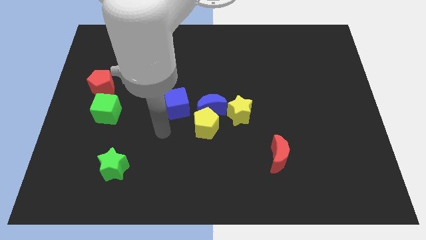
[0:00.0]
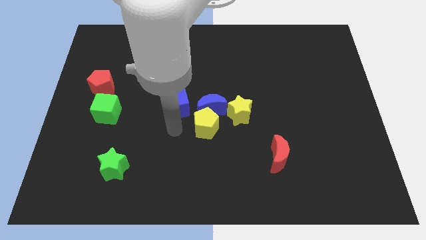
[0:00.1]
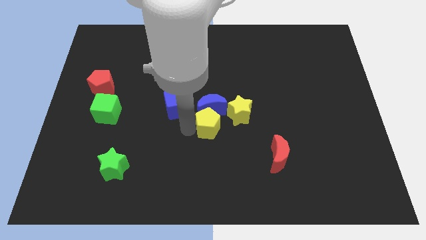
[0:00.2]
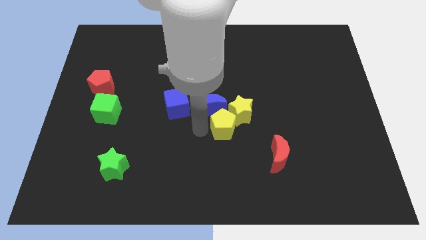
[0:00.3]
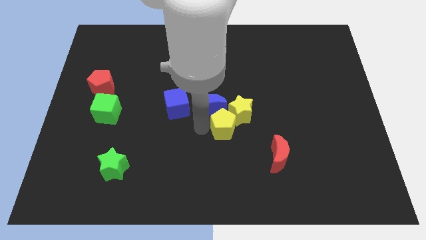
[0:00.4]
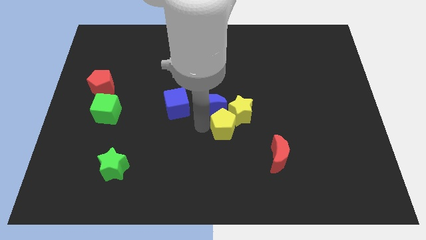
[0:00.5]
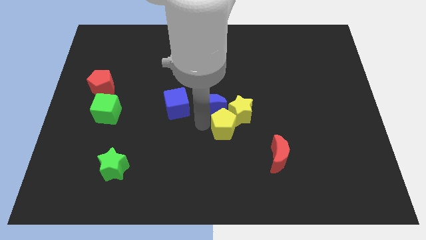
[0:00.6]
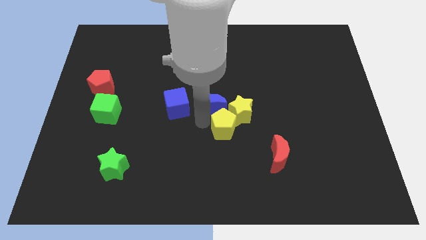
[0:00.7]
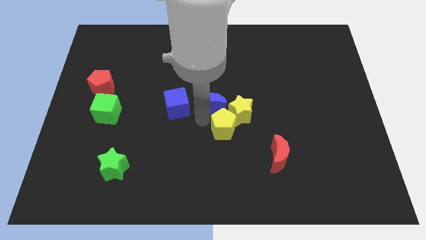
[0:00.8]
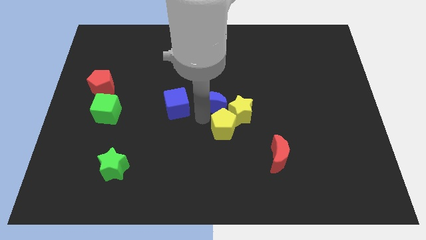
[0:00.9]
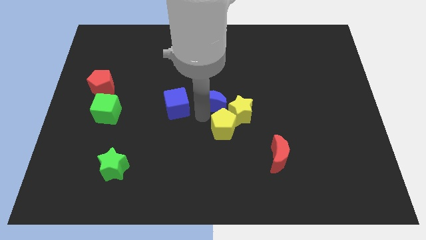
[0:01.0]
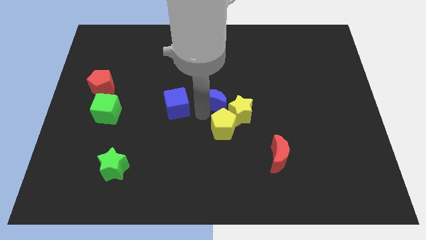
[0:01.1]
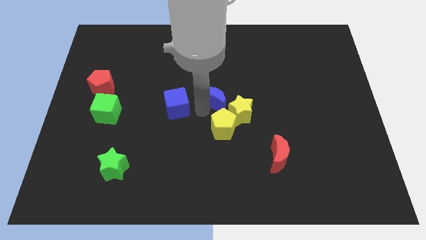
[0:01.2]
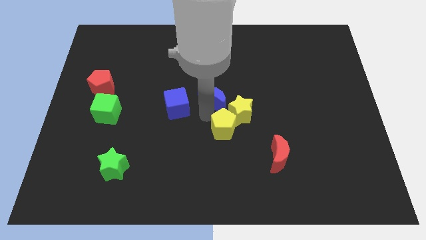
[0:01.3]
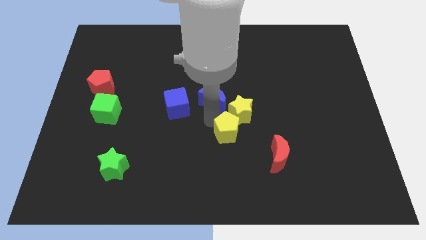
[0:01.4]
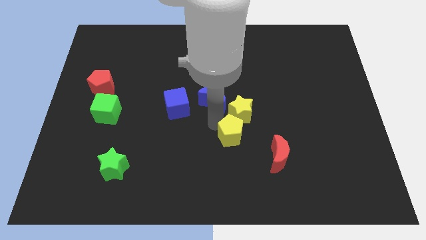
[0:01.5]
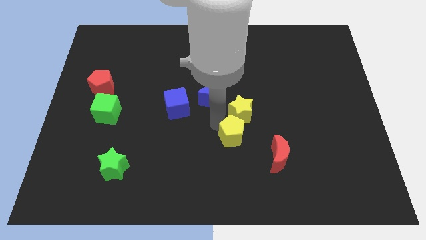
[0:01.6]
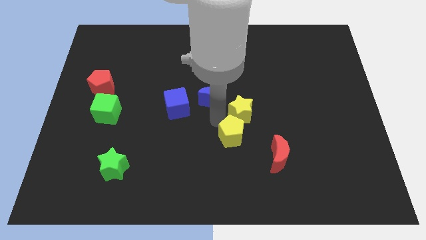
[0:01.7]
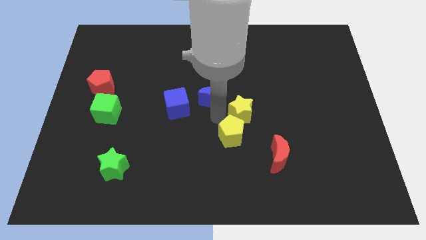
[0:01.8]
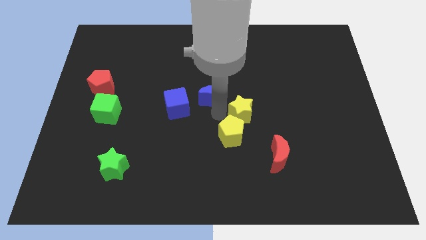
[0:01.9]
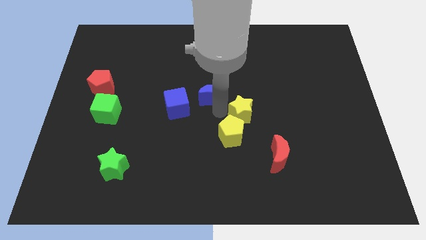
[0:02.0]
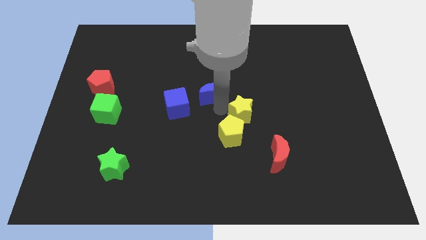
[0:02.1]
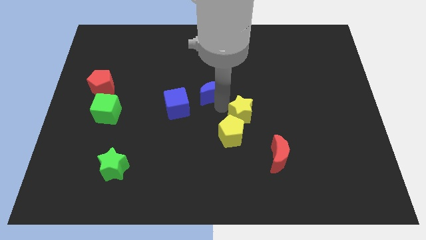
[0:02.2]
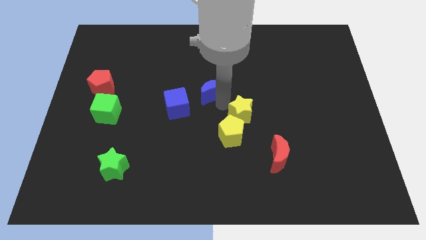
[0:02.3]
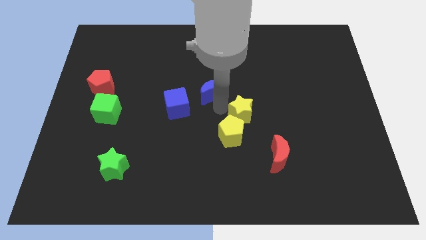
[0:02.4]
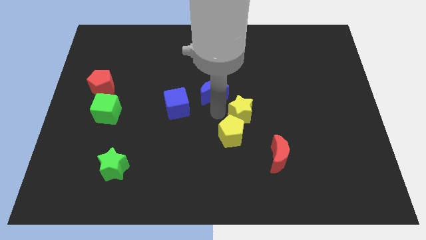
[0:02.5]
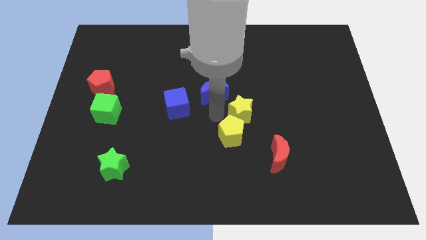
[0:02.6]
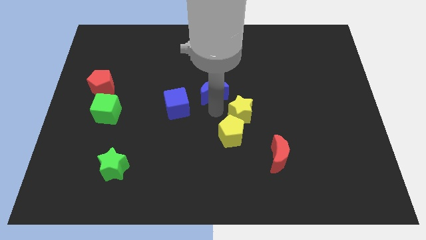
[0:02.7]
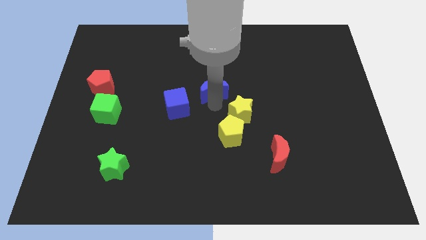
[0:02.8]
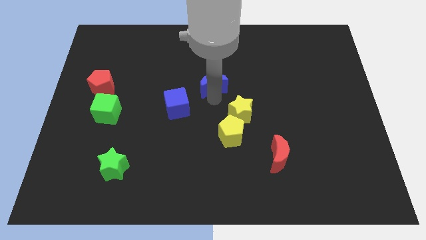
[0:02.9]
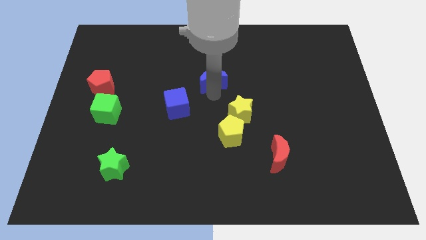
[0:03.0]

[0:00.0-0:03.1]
separate the blue moon from the clump

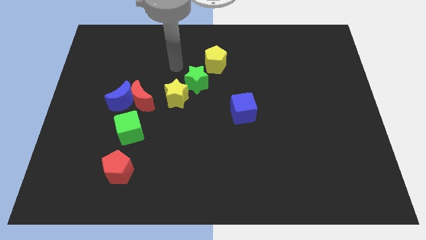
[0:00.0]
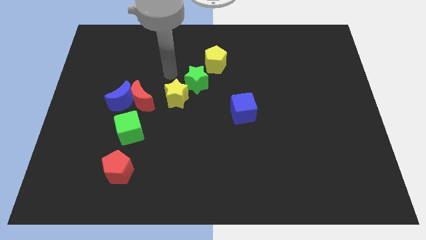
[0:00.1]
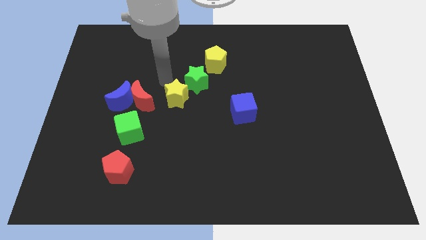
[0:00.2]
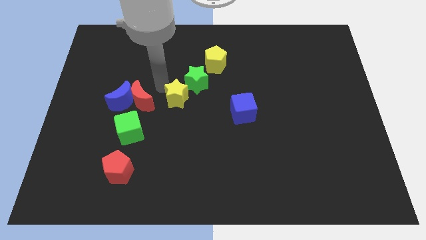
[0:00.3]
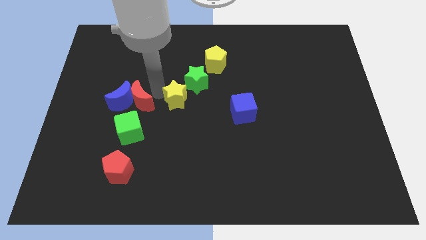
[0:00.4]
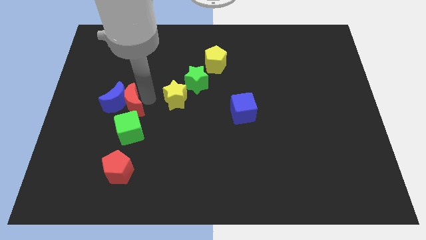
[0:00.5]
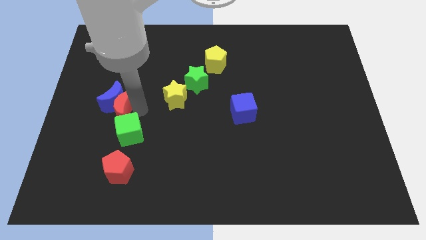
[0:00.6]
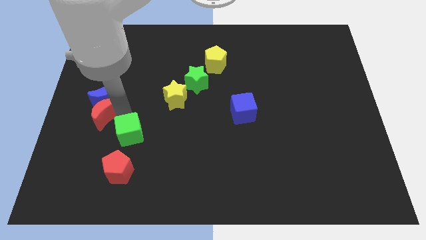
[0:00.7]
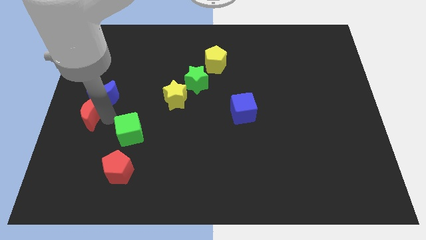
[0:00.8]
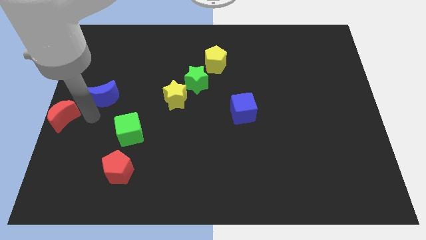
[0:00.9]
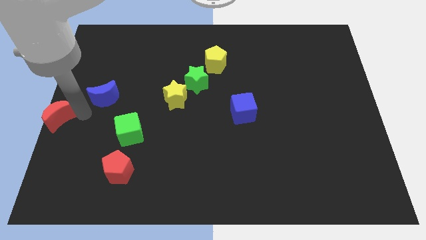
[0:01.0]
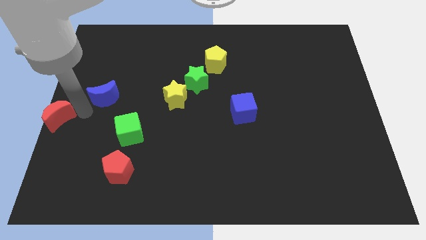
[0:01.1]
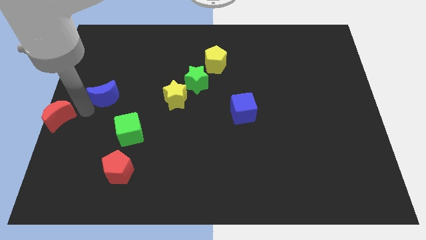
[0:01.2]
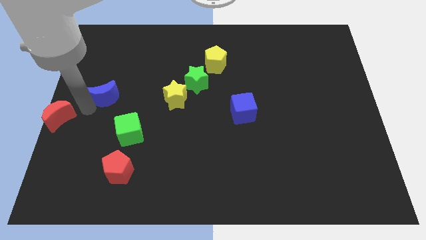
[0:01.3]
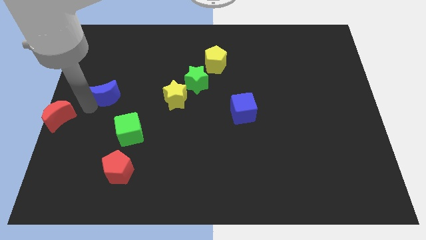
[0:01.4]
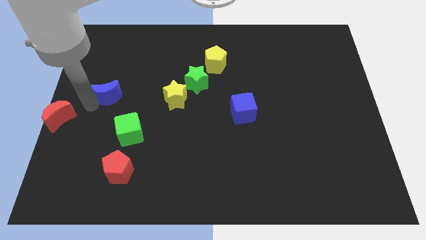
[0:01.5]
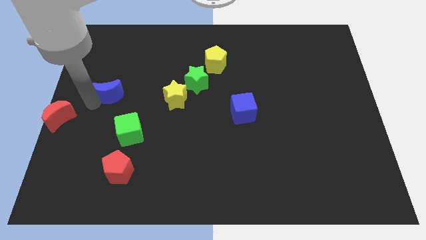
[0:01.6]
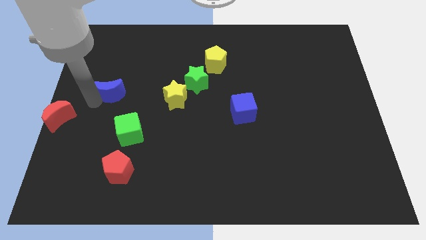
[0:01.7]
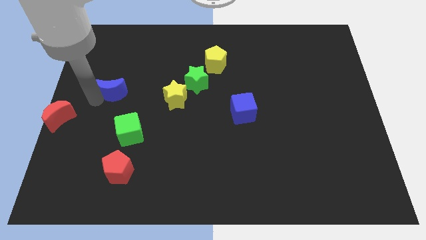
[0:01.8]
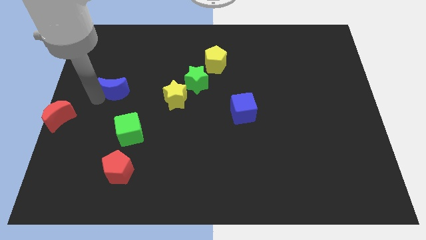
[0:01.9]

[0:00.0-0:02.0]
pull the blue moon apart from the red moon and green cube

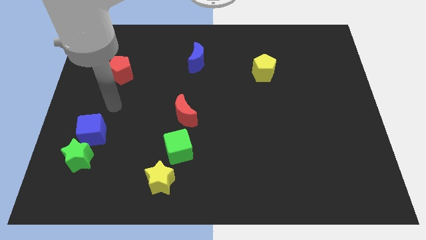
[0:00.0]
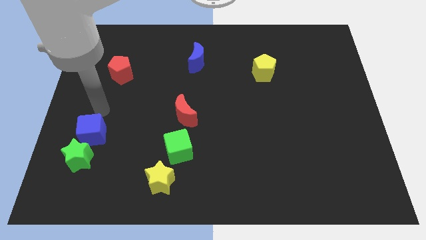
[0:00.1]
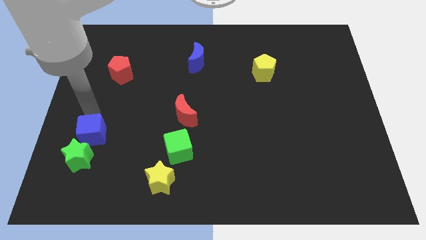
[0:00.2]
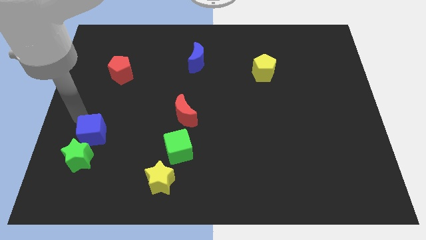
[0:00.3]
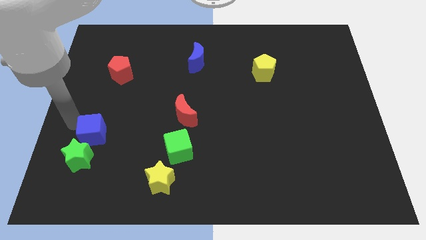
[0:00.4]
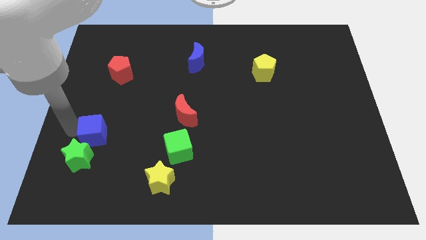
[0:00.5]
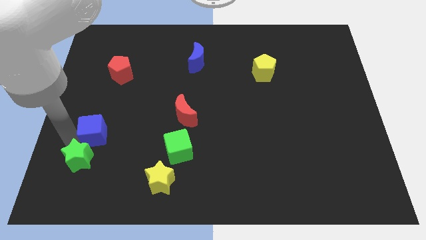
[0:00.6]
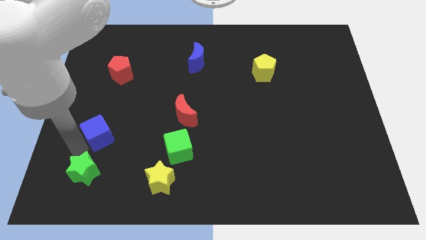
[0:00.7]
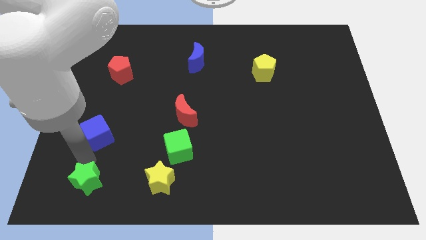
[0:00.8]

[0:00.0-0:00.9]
move the blue cube away from the green star

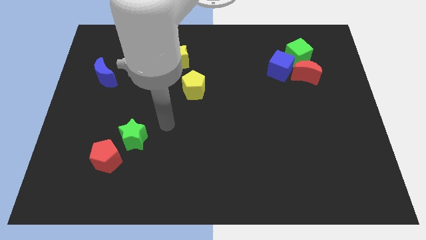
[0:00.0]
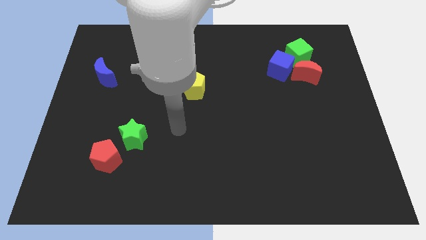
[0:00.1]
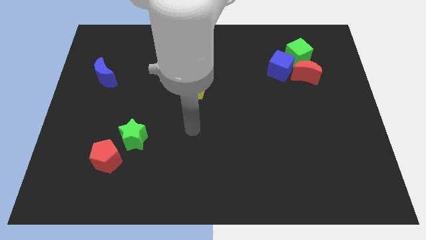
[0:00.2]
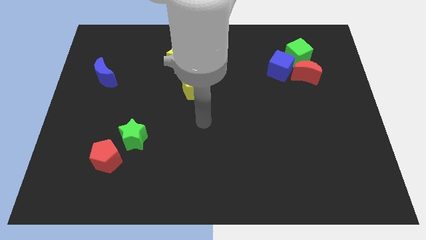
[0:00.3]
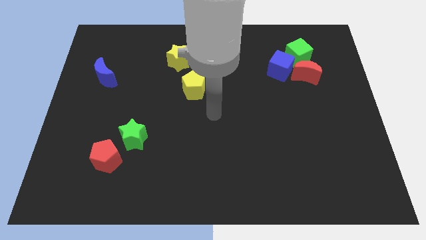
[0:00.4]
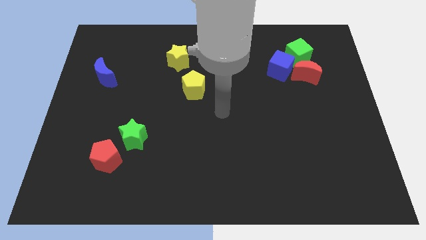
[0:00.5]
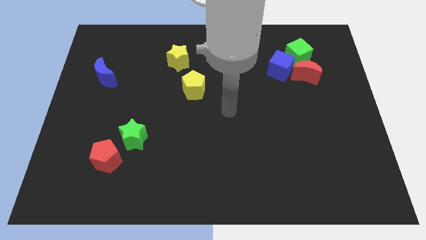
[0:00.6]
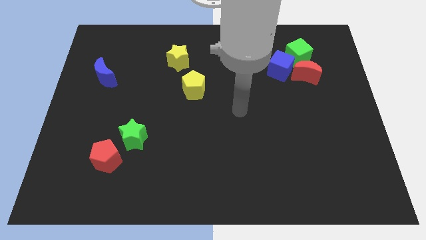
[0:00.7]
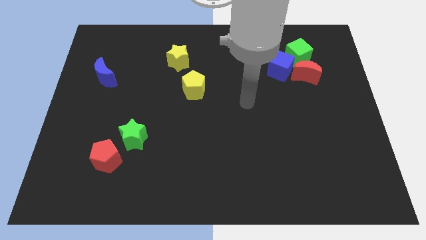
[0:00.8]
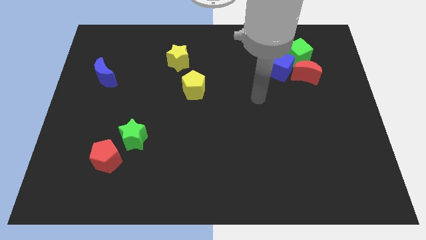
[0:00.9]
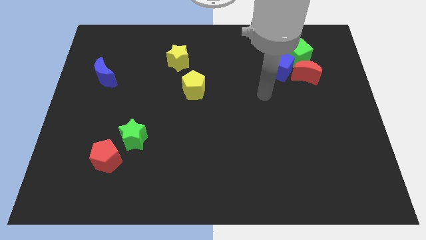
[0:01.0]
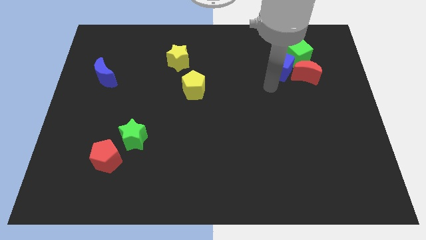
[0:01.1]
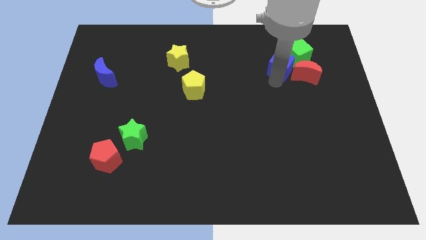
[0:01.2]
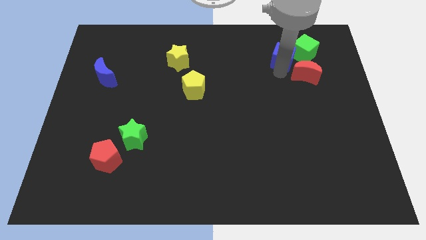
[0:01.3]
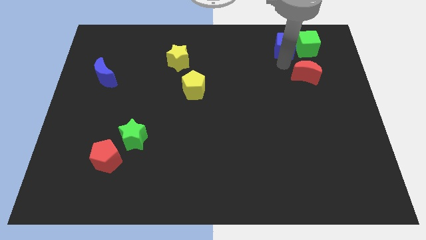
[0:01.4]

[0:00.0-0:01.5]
move the red moon away from the blue cube and green cube

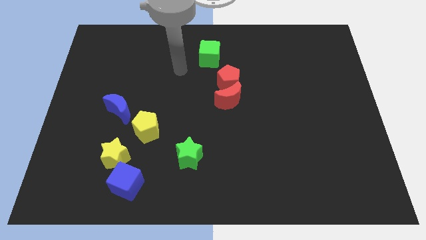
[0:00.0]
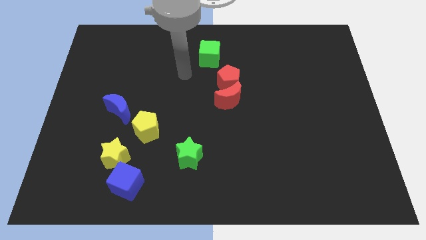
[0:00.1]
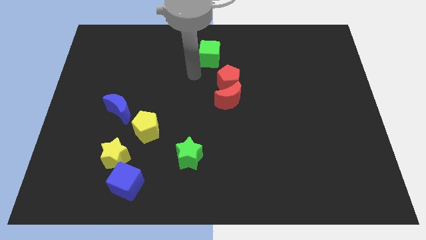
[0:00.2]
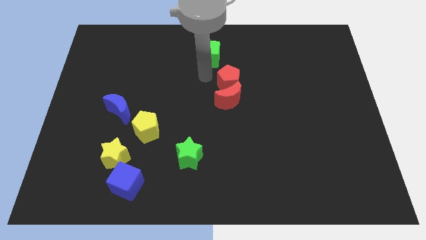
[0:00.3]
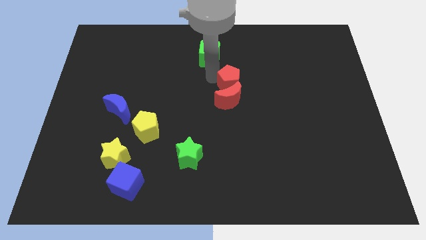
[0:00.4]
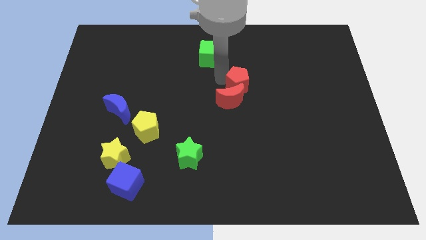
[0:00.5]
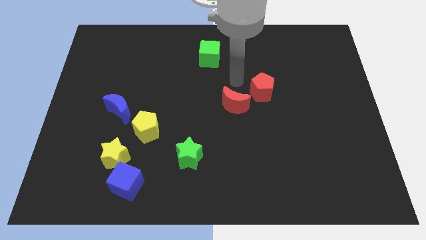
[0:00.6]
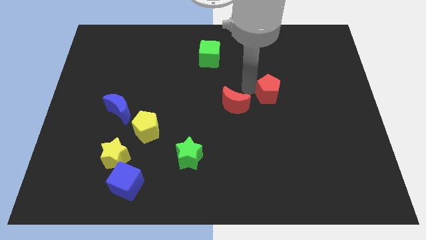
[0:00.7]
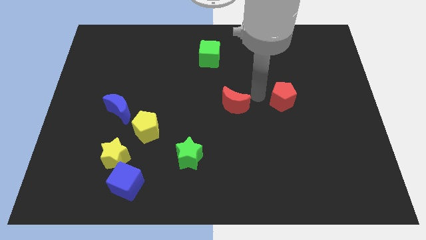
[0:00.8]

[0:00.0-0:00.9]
move the red moon away from the red pentagon

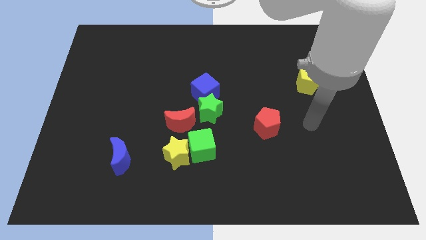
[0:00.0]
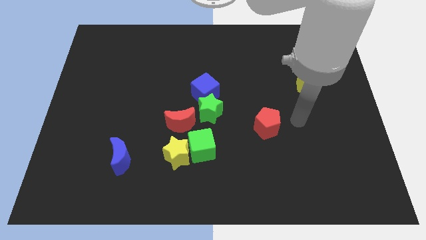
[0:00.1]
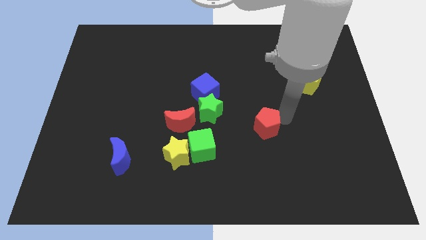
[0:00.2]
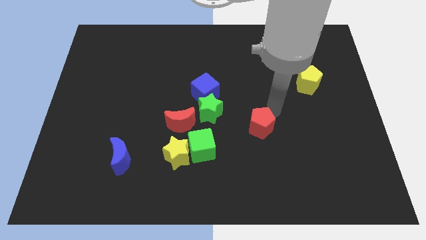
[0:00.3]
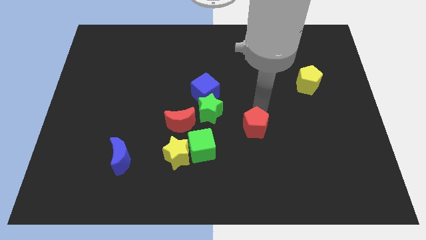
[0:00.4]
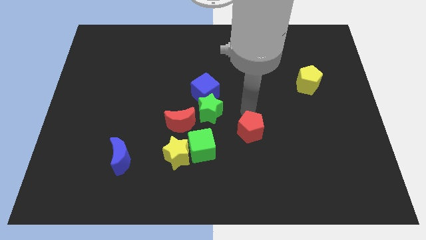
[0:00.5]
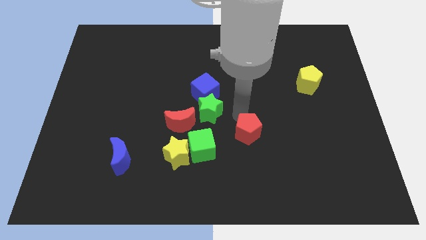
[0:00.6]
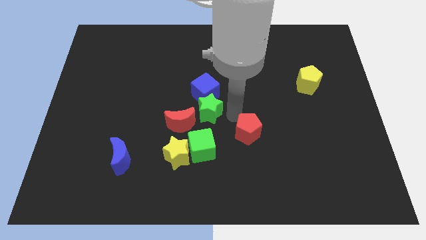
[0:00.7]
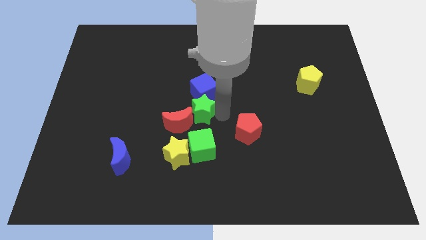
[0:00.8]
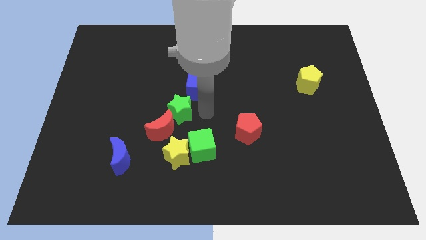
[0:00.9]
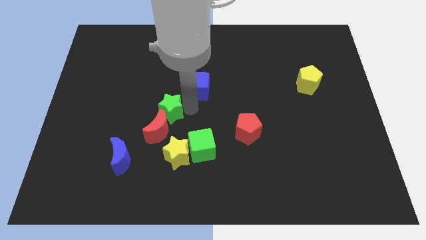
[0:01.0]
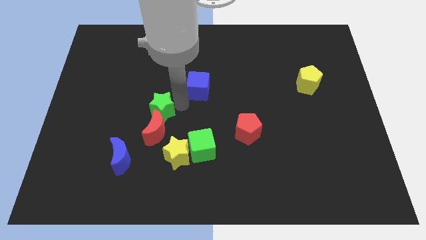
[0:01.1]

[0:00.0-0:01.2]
separate the blue cube from the green star
